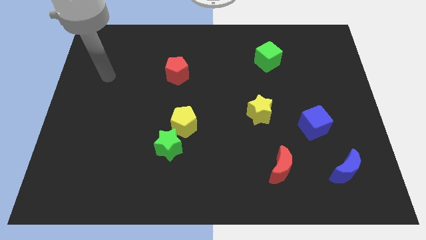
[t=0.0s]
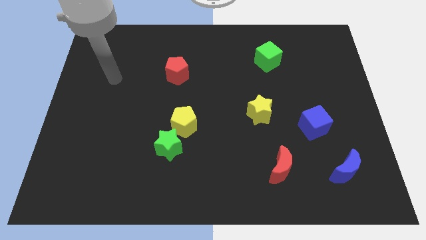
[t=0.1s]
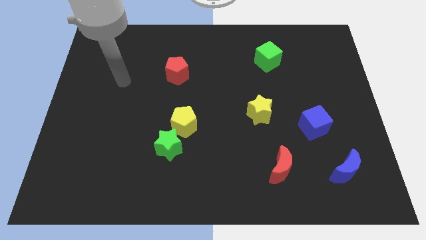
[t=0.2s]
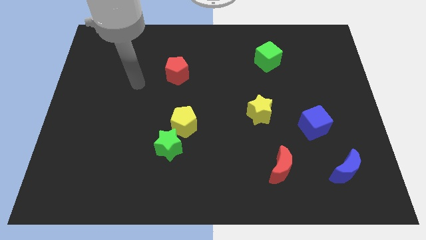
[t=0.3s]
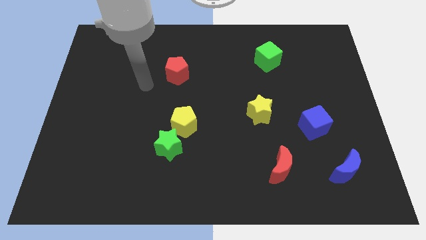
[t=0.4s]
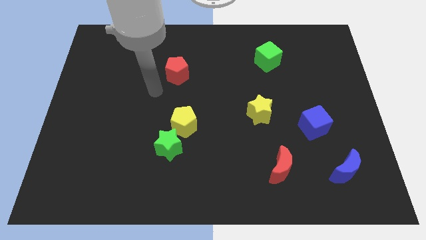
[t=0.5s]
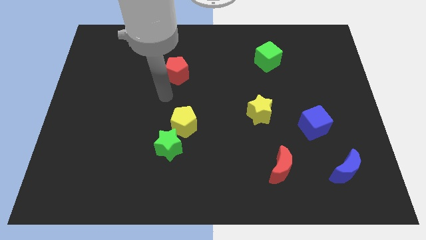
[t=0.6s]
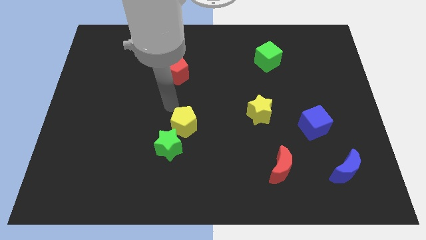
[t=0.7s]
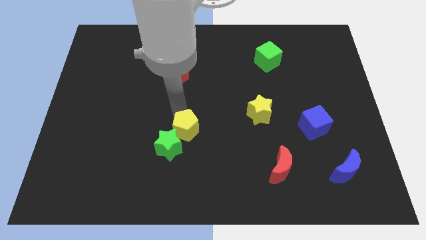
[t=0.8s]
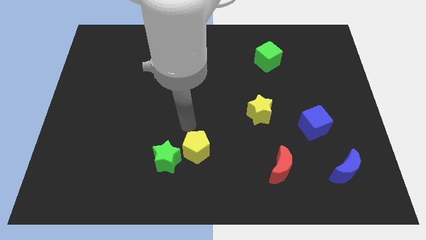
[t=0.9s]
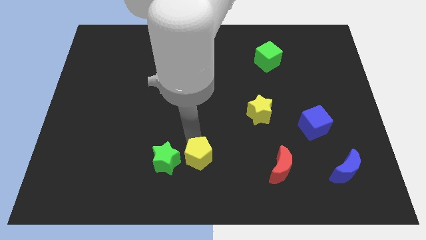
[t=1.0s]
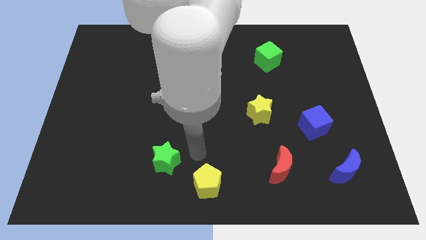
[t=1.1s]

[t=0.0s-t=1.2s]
separate the green star from the yellow pentagon

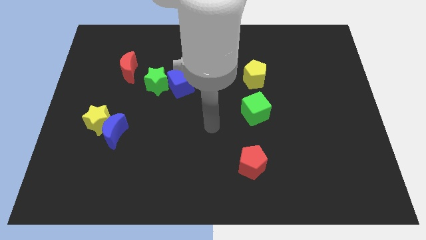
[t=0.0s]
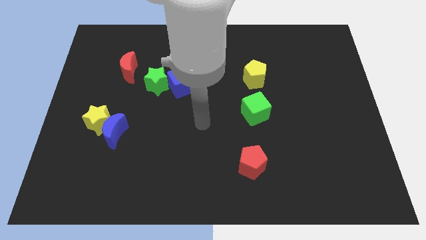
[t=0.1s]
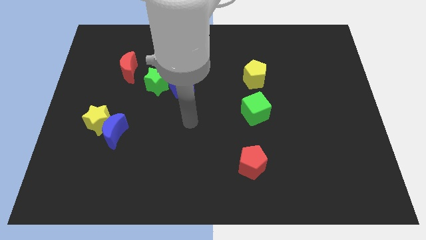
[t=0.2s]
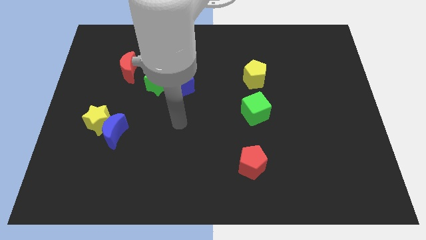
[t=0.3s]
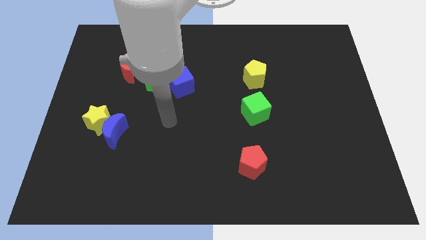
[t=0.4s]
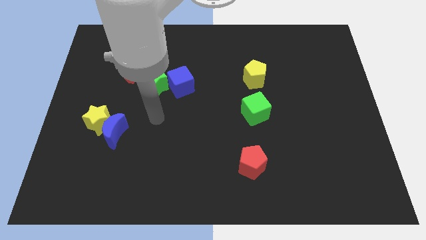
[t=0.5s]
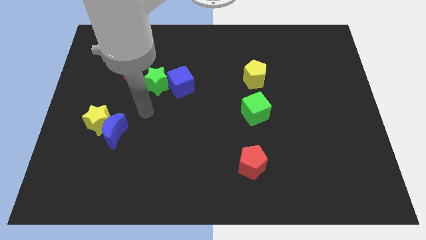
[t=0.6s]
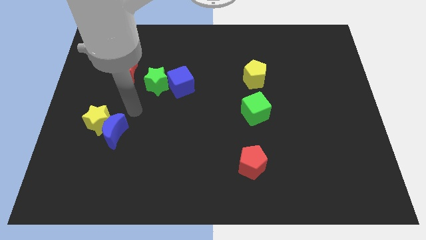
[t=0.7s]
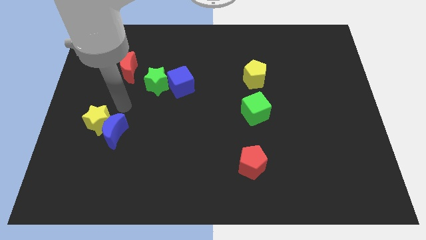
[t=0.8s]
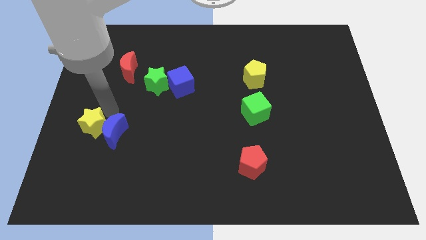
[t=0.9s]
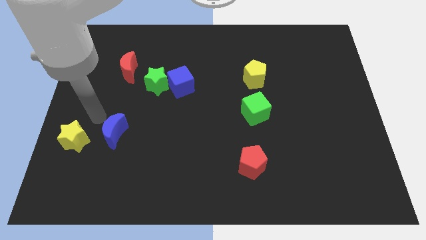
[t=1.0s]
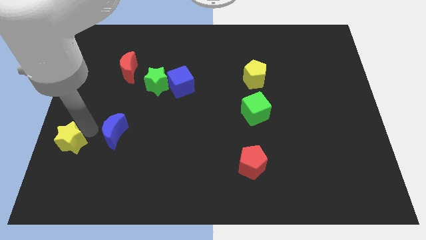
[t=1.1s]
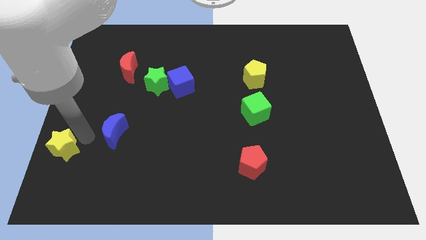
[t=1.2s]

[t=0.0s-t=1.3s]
move the blue moon away from the yellow star

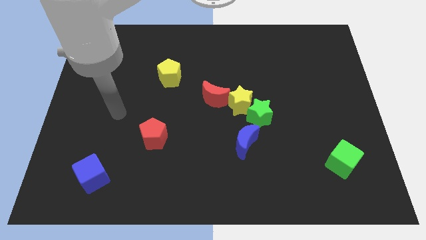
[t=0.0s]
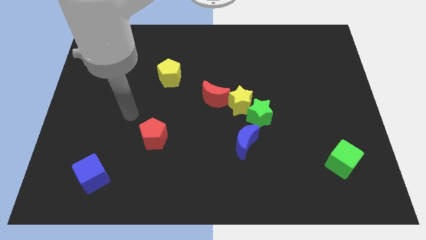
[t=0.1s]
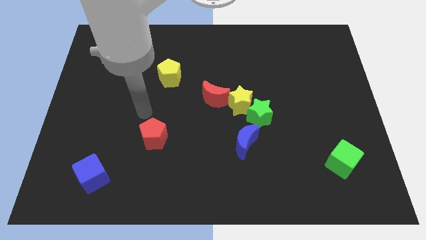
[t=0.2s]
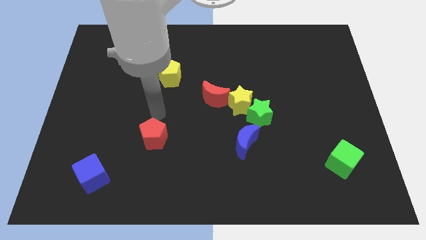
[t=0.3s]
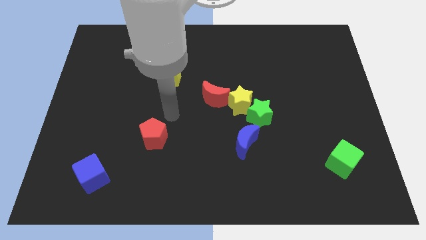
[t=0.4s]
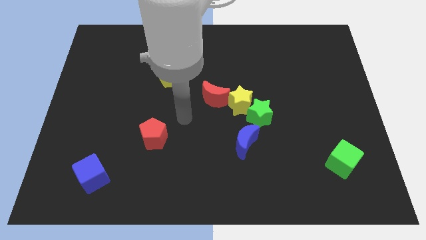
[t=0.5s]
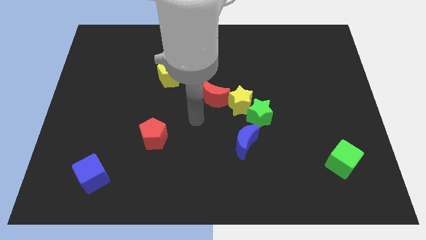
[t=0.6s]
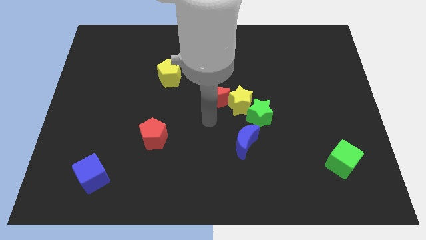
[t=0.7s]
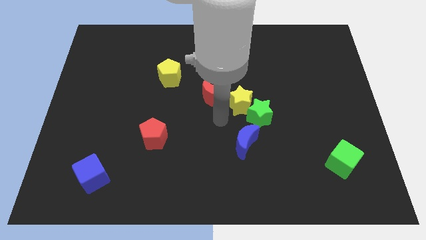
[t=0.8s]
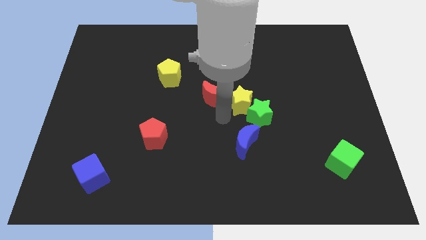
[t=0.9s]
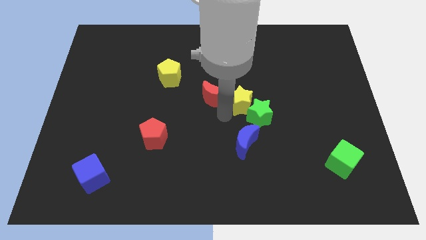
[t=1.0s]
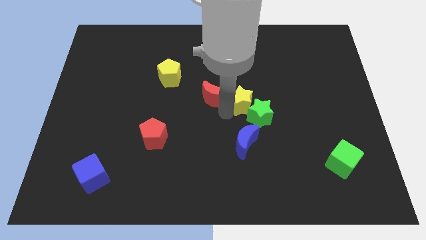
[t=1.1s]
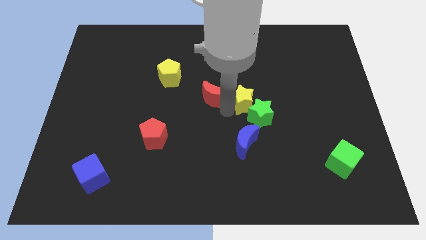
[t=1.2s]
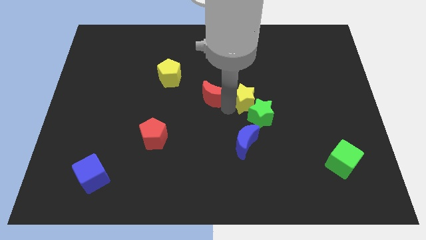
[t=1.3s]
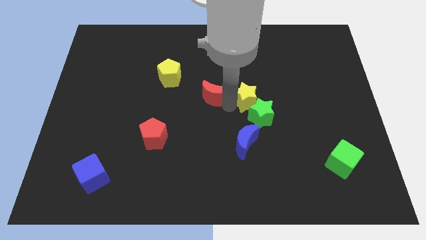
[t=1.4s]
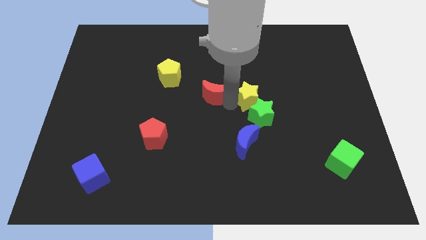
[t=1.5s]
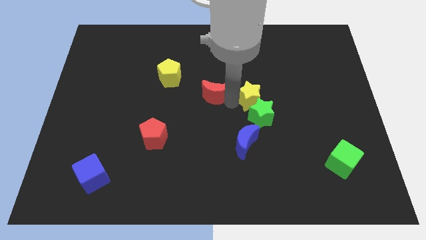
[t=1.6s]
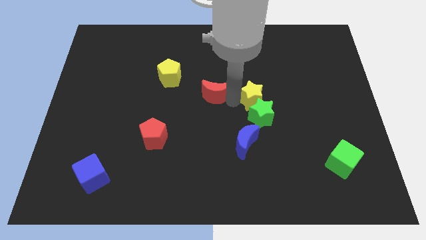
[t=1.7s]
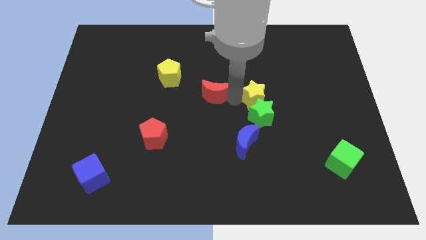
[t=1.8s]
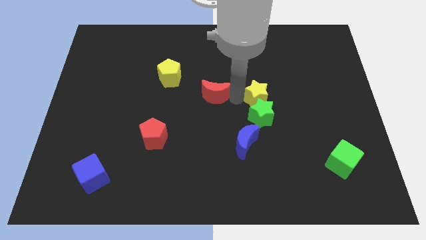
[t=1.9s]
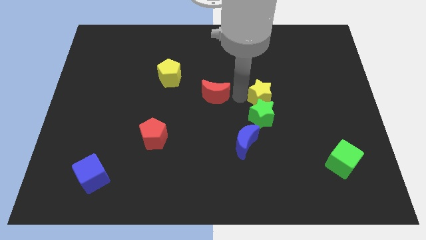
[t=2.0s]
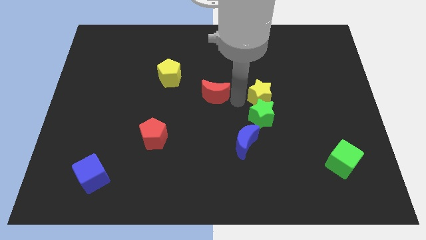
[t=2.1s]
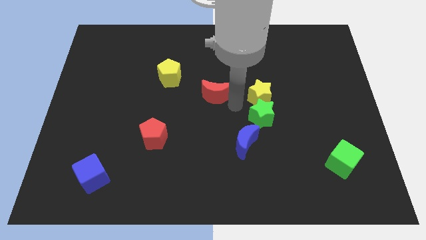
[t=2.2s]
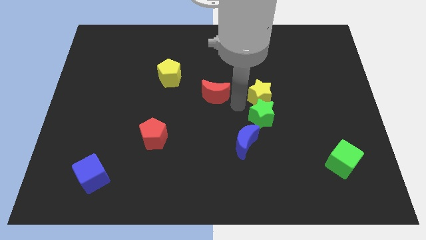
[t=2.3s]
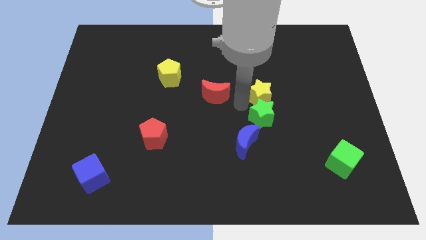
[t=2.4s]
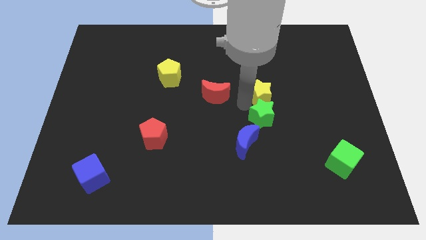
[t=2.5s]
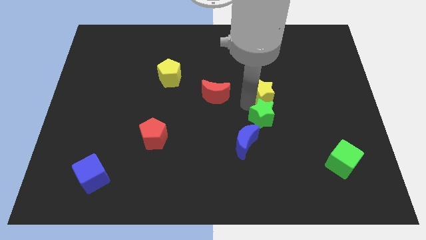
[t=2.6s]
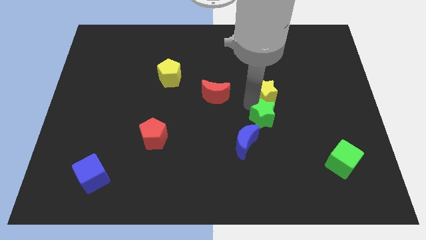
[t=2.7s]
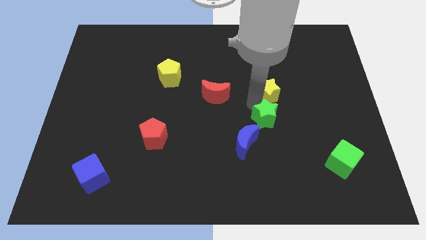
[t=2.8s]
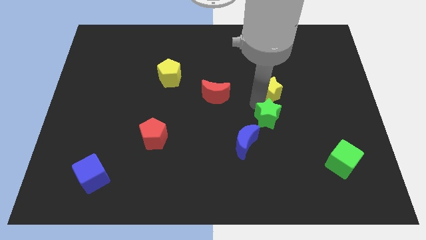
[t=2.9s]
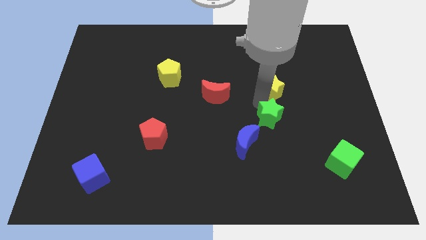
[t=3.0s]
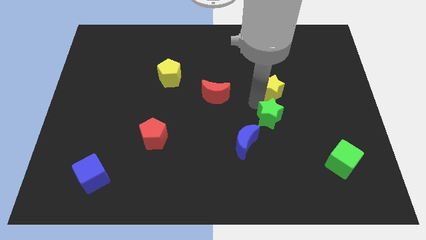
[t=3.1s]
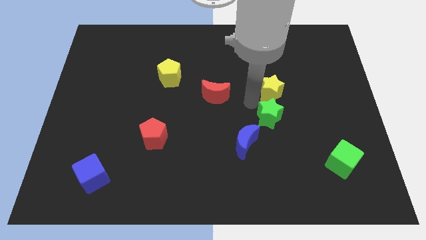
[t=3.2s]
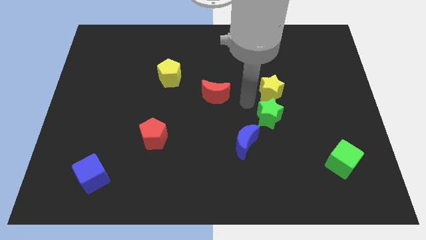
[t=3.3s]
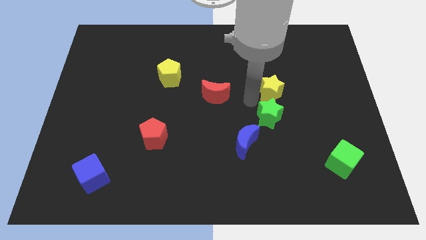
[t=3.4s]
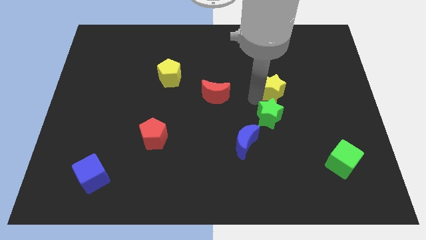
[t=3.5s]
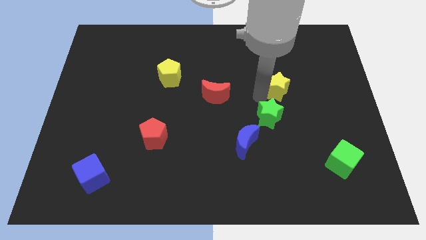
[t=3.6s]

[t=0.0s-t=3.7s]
pull the yellow star apart from the green star and red moon

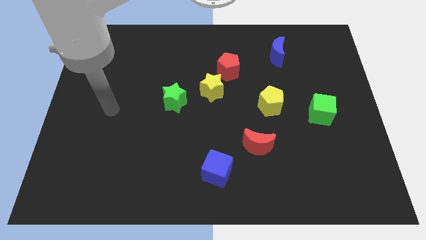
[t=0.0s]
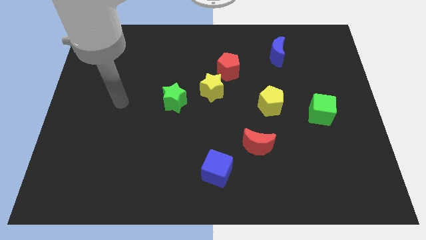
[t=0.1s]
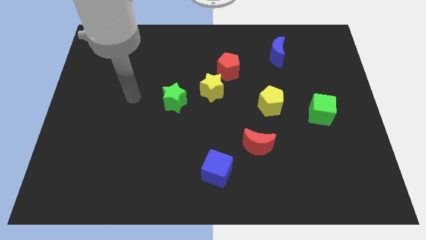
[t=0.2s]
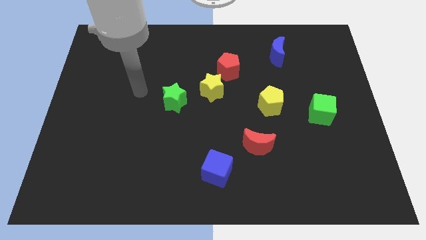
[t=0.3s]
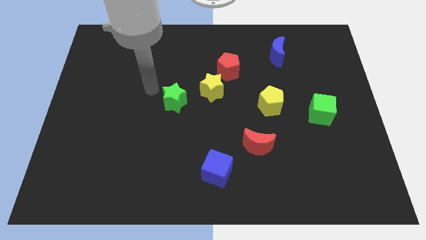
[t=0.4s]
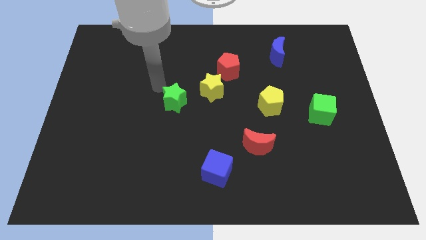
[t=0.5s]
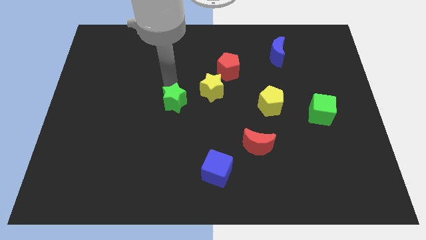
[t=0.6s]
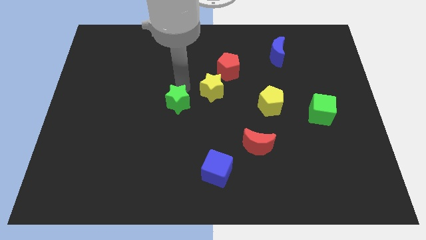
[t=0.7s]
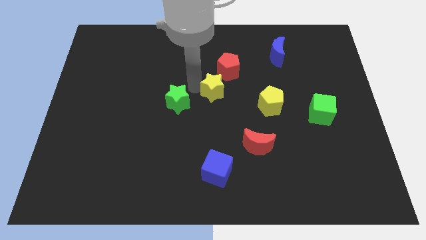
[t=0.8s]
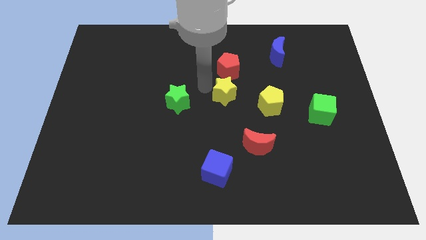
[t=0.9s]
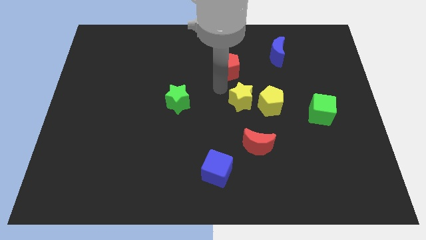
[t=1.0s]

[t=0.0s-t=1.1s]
separate the red pentagon from the yellow star

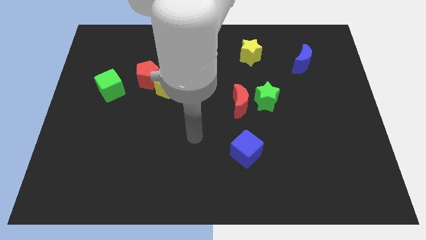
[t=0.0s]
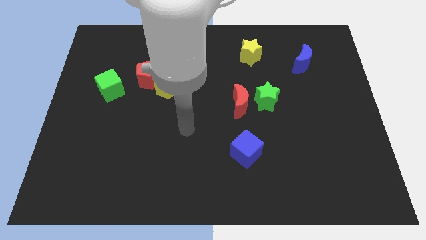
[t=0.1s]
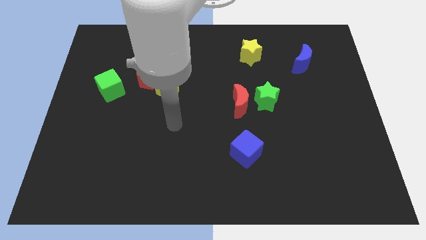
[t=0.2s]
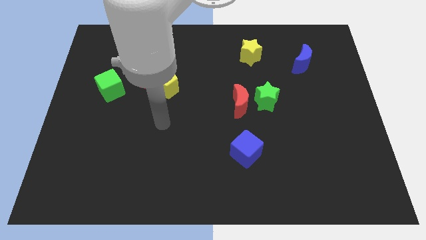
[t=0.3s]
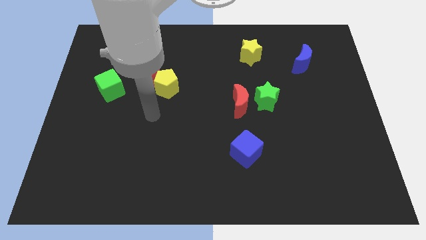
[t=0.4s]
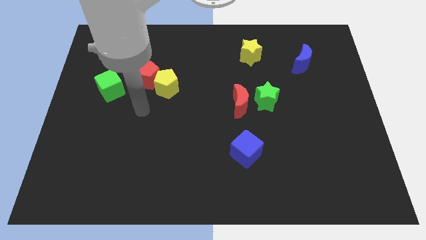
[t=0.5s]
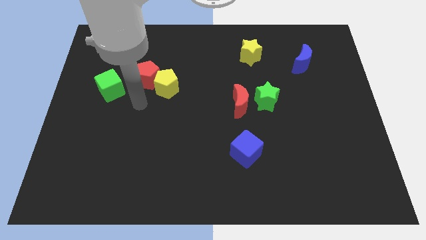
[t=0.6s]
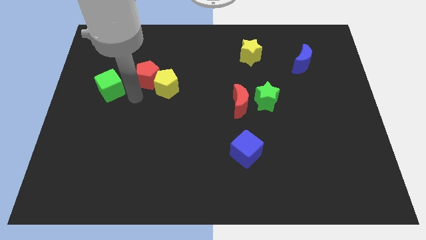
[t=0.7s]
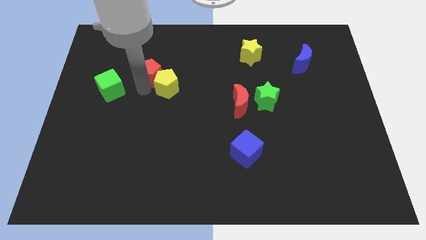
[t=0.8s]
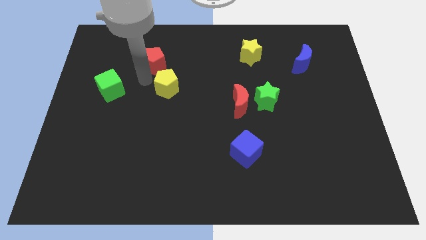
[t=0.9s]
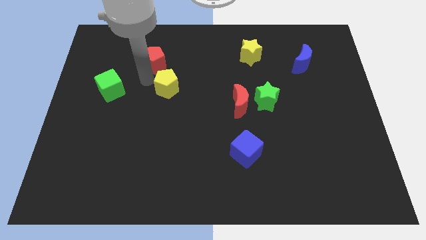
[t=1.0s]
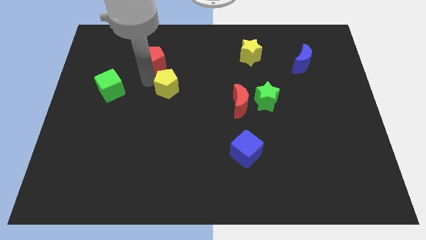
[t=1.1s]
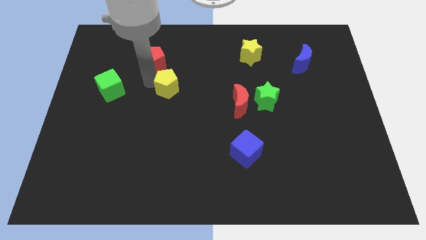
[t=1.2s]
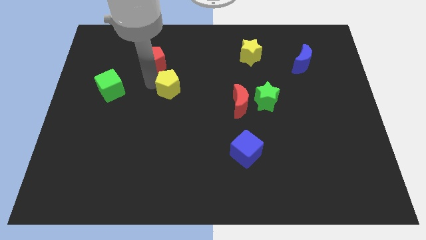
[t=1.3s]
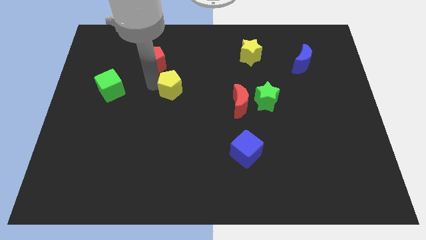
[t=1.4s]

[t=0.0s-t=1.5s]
separate the yellow pentagon from the red pentagon

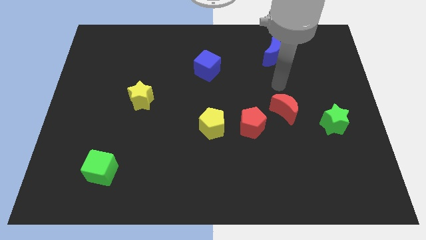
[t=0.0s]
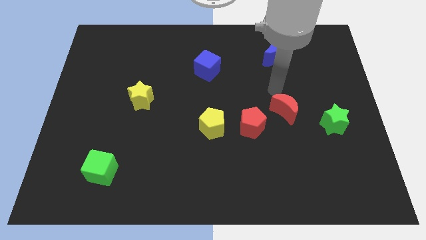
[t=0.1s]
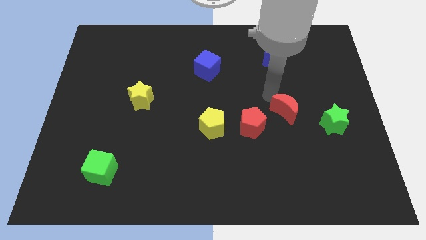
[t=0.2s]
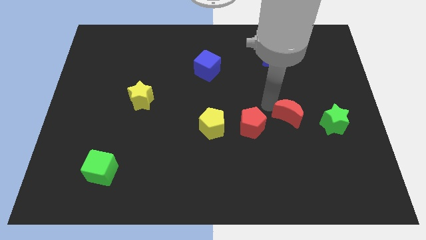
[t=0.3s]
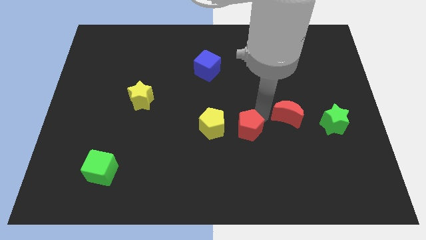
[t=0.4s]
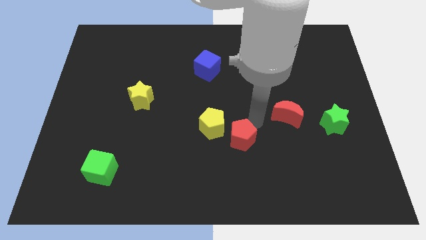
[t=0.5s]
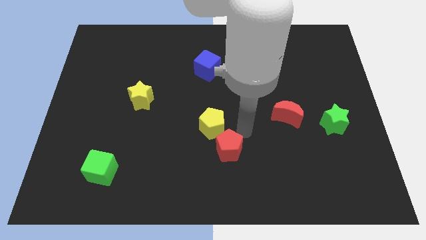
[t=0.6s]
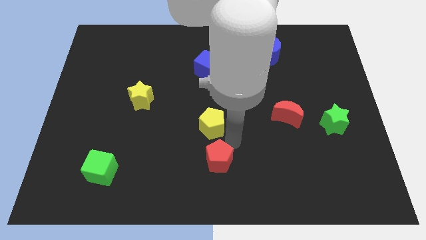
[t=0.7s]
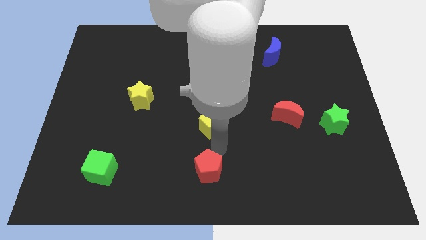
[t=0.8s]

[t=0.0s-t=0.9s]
move the yellow pentagon away from the red pentagon
